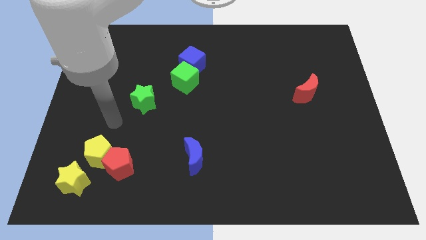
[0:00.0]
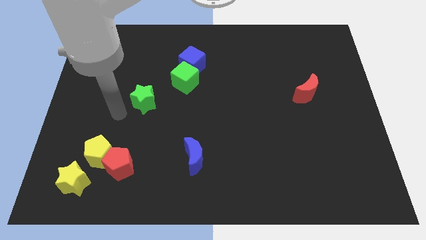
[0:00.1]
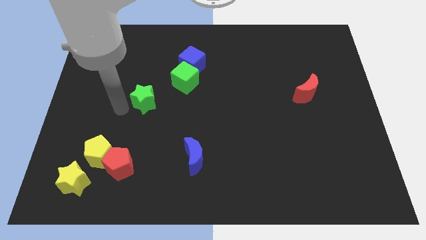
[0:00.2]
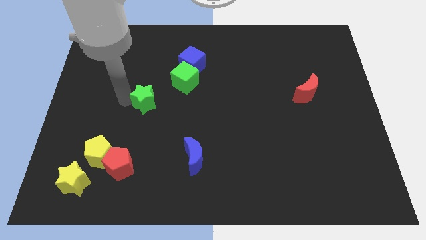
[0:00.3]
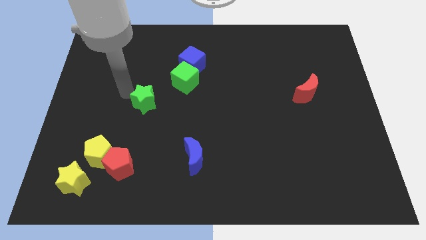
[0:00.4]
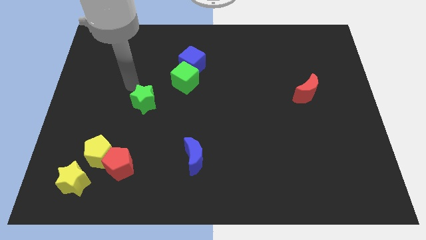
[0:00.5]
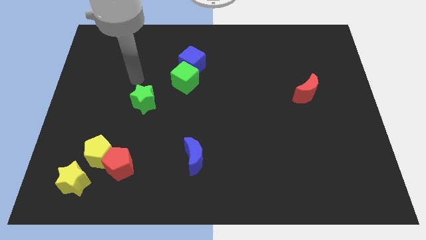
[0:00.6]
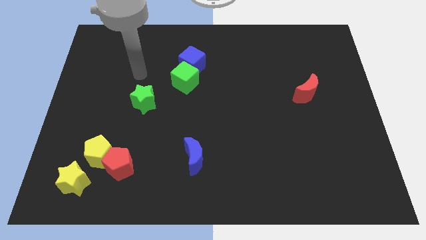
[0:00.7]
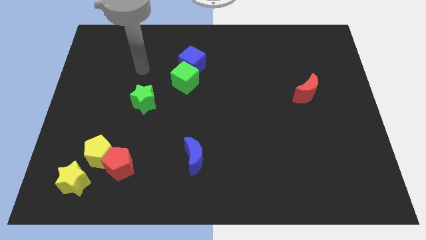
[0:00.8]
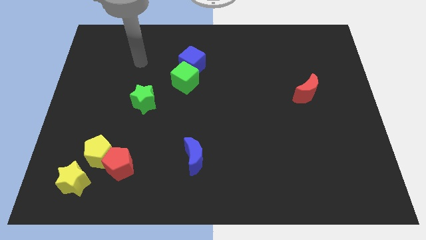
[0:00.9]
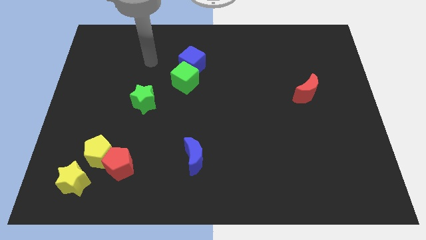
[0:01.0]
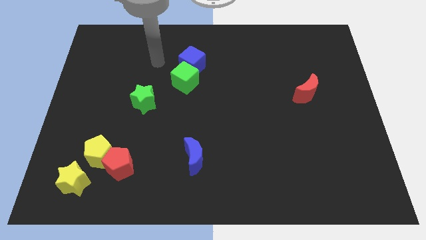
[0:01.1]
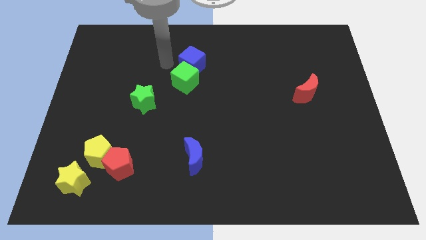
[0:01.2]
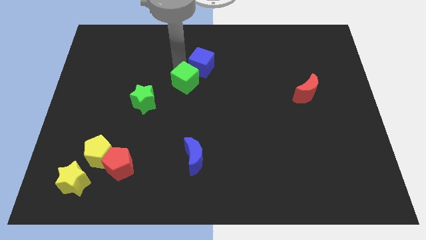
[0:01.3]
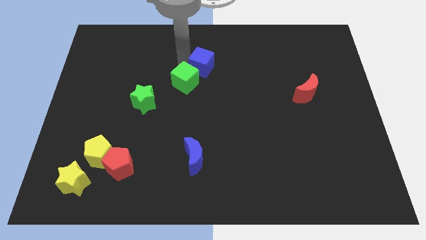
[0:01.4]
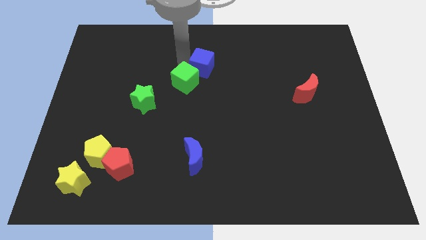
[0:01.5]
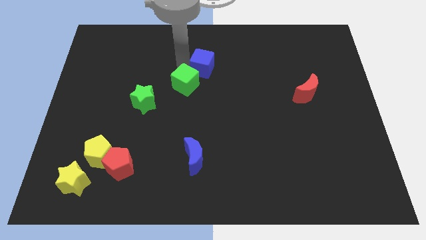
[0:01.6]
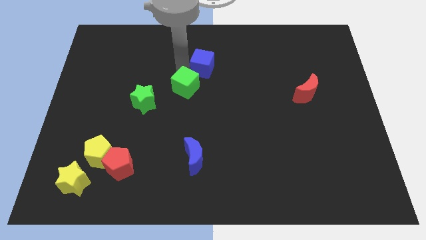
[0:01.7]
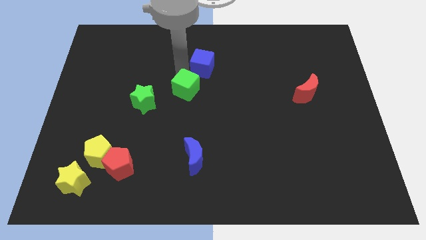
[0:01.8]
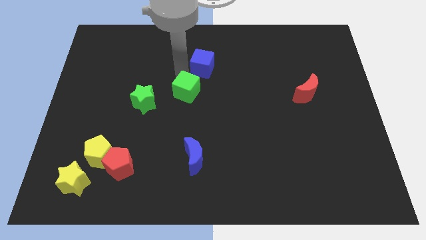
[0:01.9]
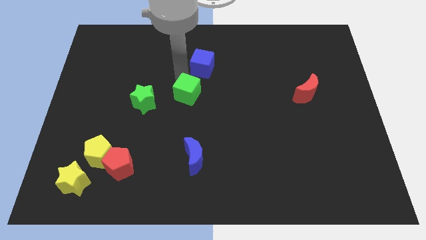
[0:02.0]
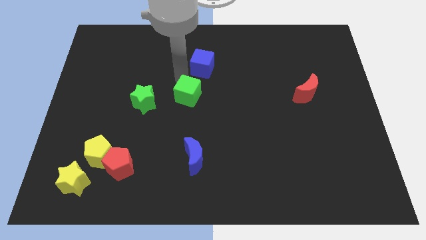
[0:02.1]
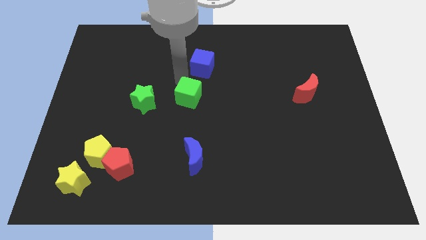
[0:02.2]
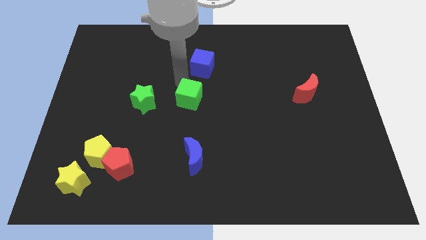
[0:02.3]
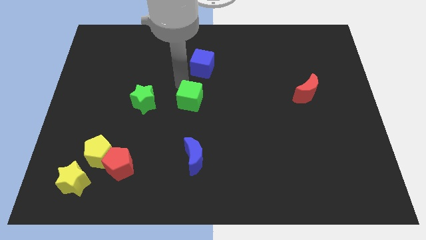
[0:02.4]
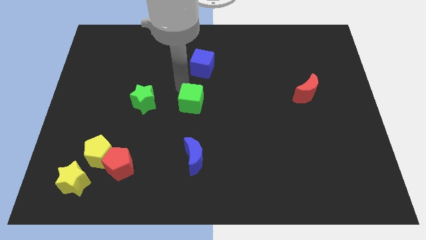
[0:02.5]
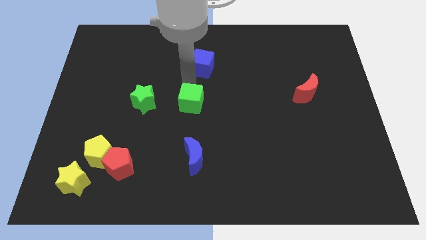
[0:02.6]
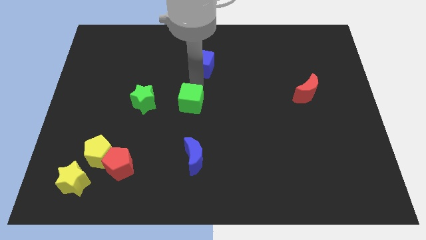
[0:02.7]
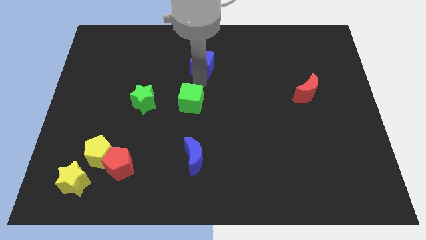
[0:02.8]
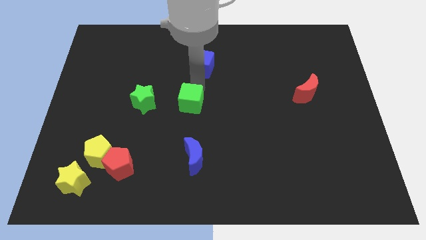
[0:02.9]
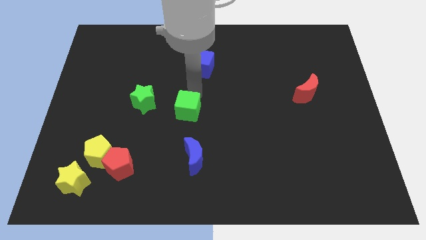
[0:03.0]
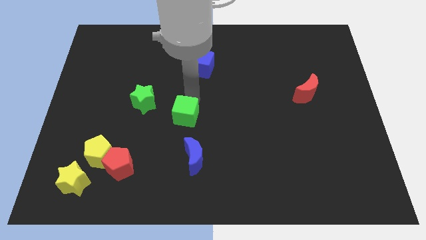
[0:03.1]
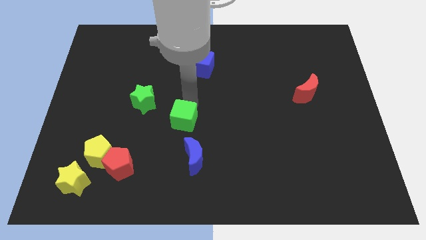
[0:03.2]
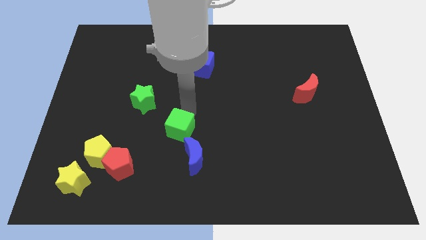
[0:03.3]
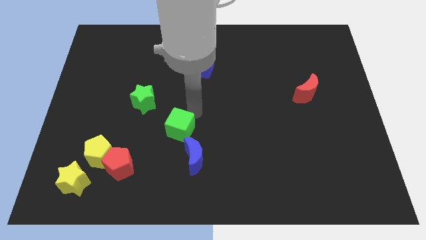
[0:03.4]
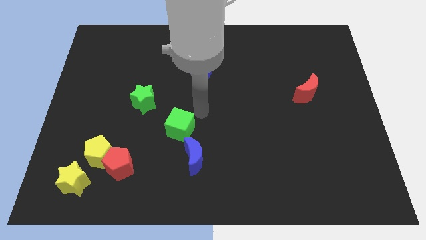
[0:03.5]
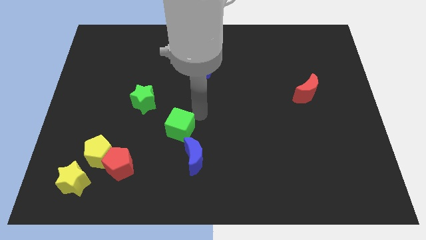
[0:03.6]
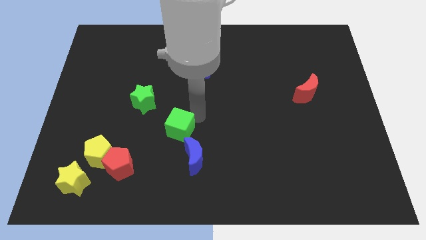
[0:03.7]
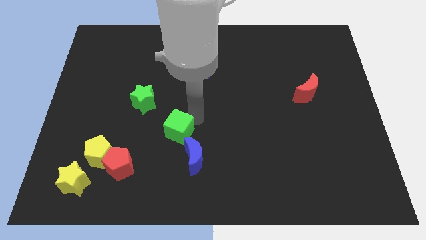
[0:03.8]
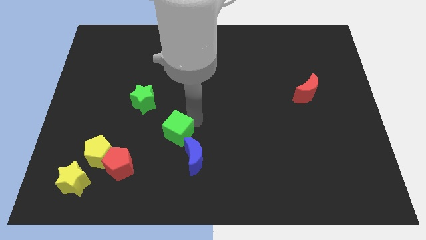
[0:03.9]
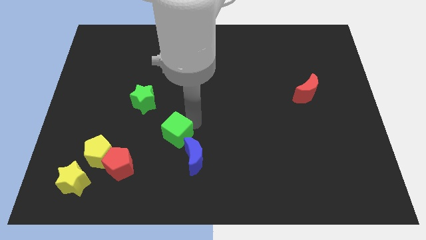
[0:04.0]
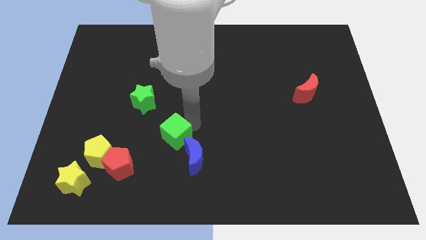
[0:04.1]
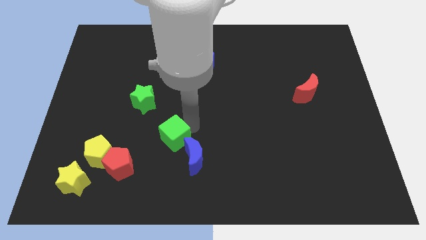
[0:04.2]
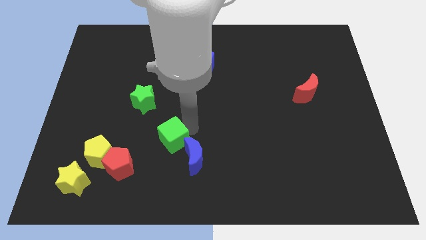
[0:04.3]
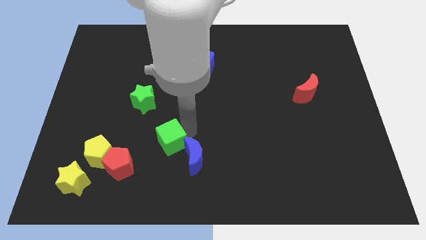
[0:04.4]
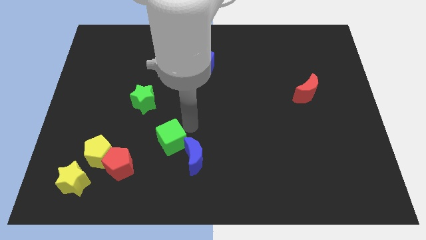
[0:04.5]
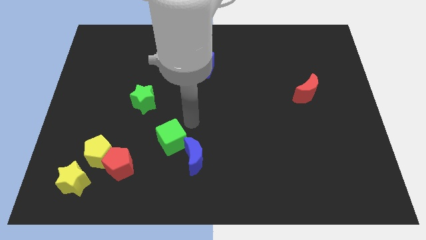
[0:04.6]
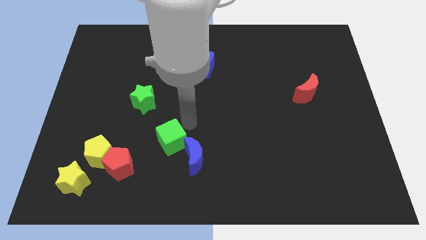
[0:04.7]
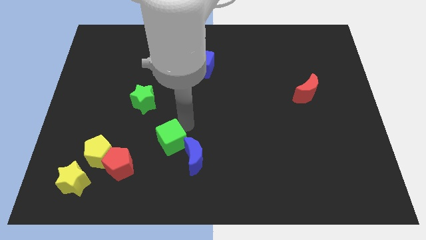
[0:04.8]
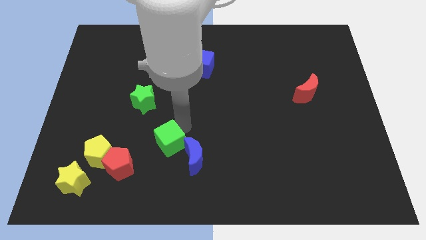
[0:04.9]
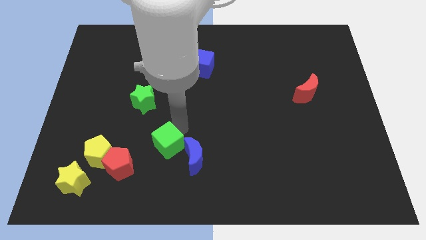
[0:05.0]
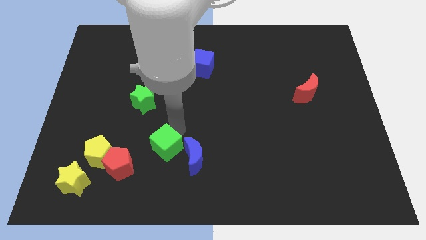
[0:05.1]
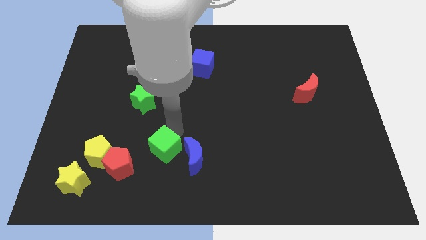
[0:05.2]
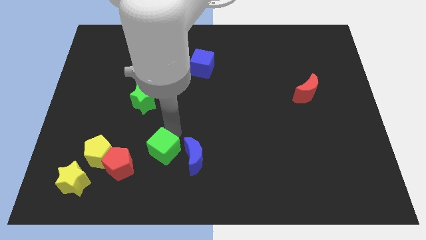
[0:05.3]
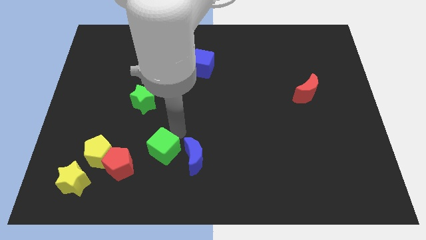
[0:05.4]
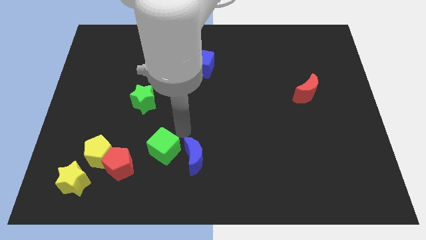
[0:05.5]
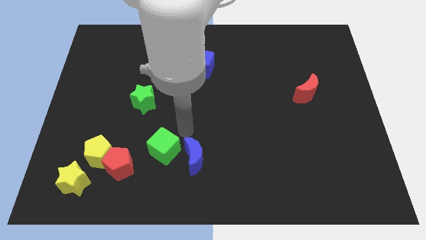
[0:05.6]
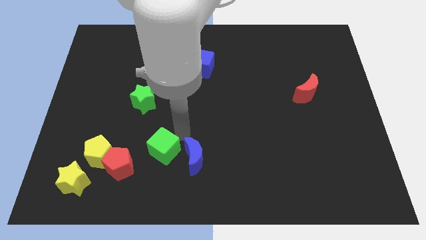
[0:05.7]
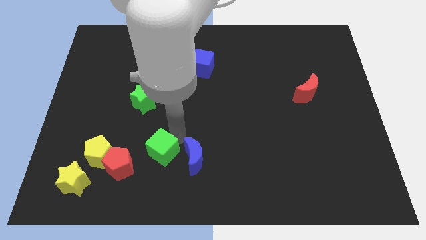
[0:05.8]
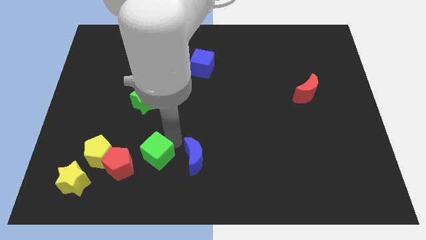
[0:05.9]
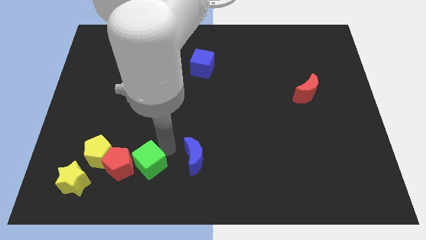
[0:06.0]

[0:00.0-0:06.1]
put the green cube towards the red pentagon

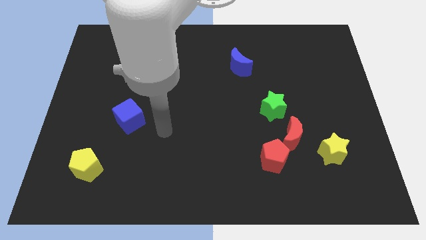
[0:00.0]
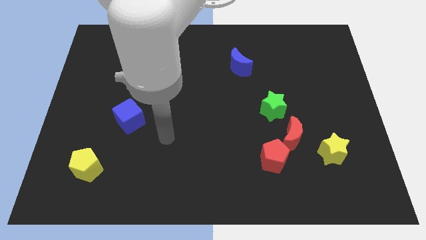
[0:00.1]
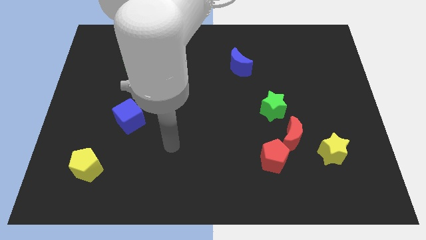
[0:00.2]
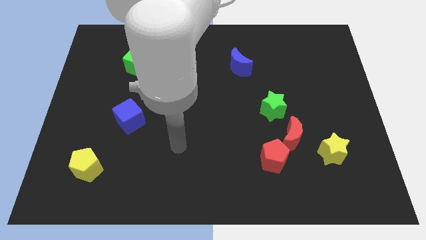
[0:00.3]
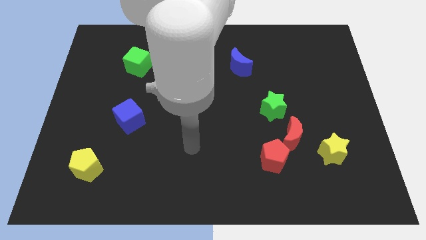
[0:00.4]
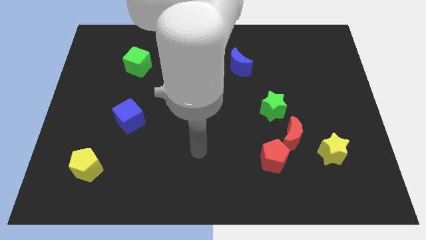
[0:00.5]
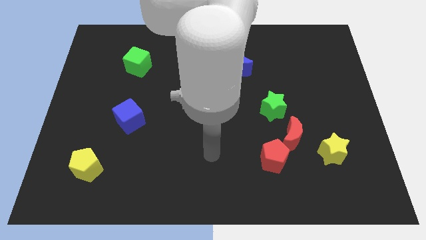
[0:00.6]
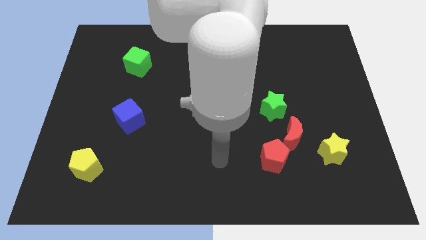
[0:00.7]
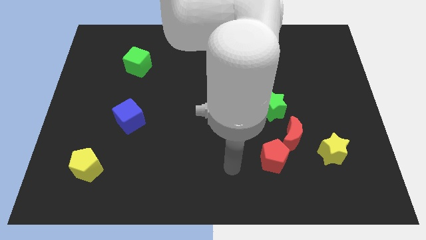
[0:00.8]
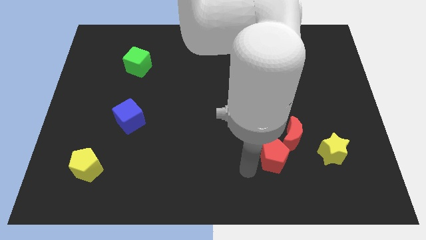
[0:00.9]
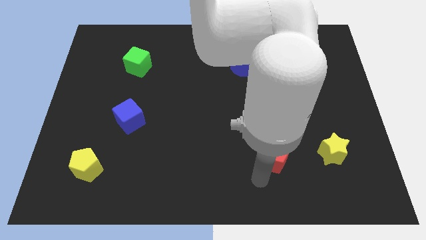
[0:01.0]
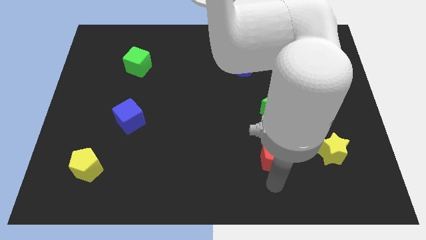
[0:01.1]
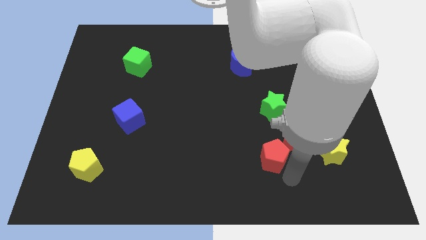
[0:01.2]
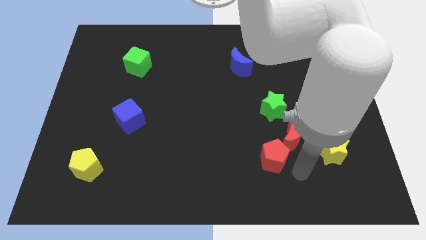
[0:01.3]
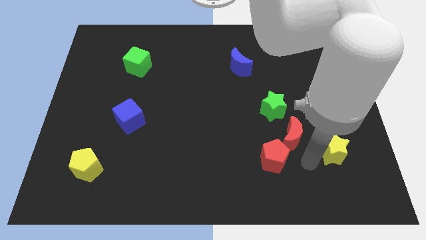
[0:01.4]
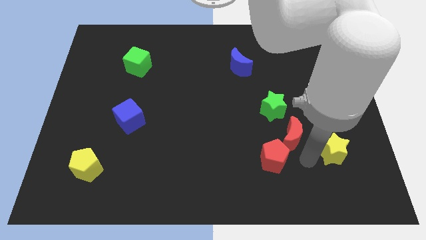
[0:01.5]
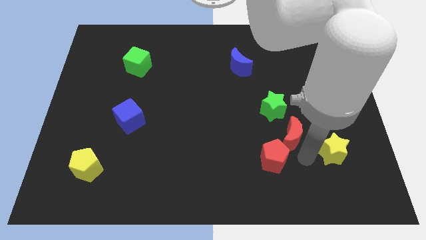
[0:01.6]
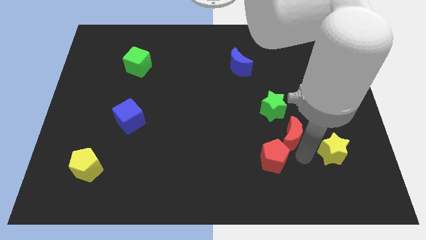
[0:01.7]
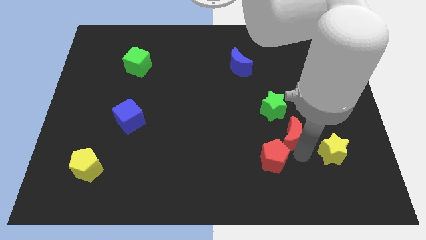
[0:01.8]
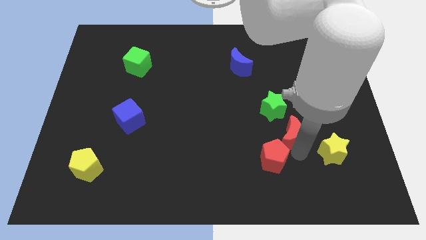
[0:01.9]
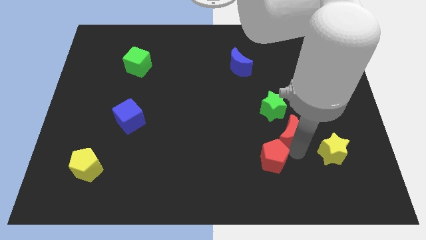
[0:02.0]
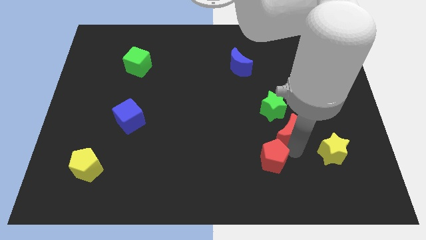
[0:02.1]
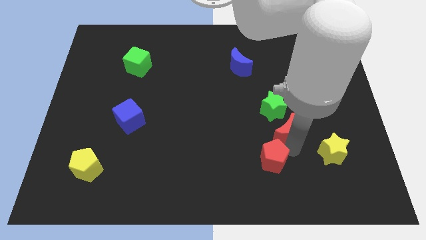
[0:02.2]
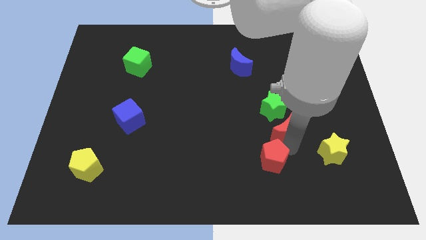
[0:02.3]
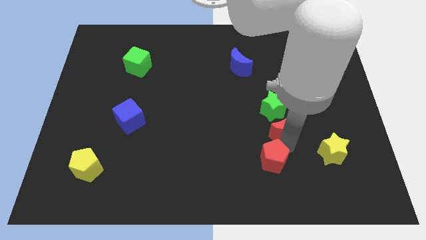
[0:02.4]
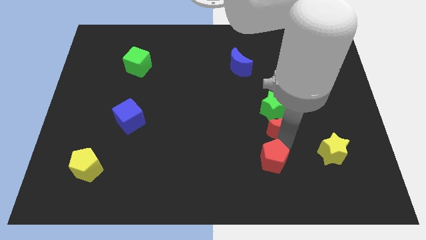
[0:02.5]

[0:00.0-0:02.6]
push the red moon next to the green star
